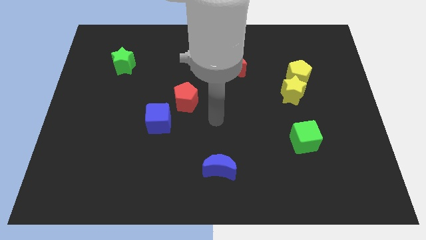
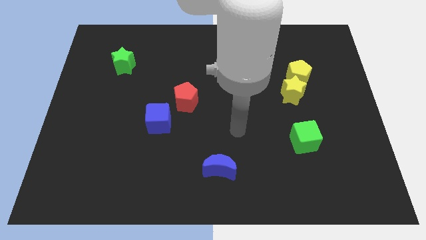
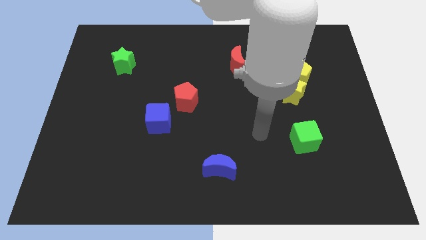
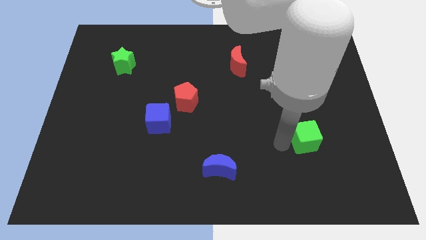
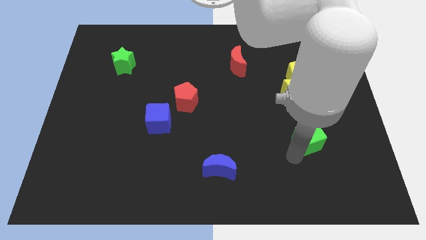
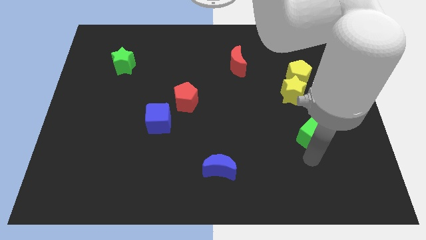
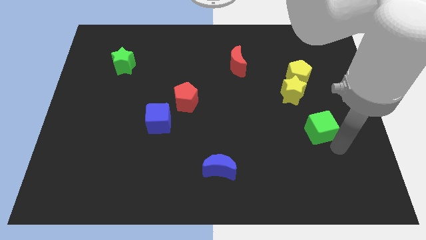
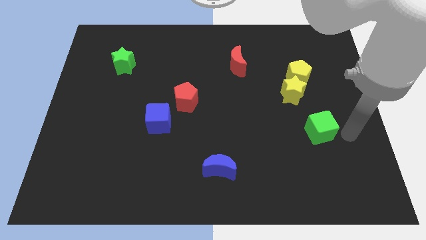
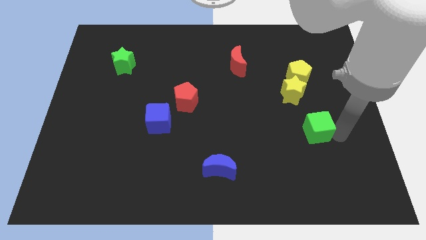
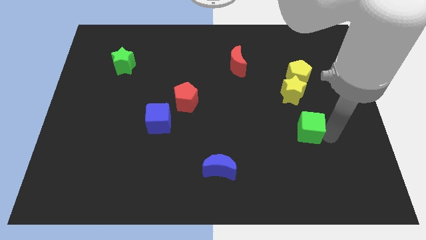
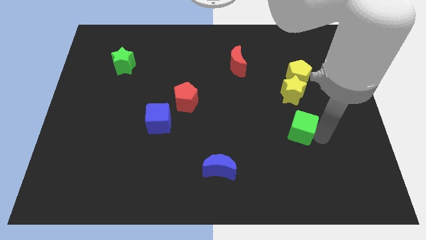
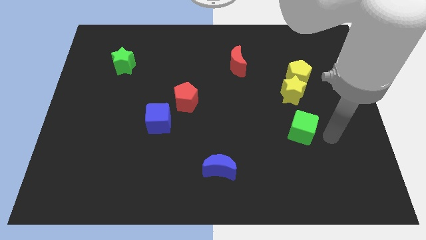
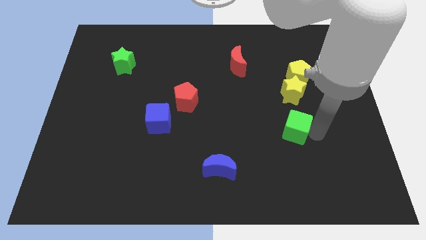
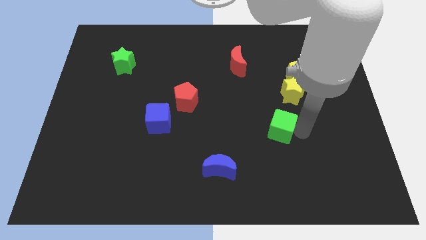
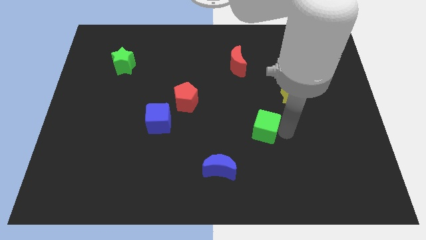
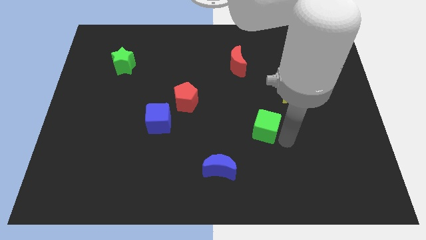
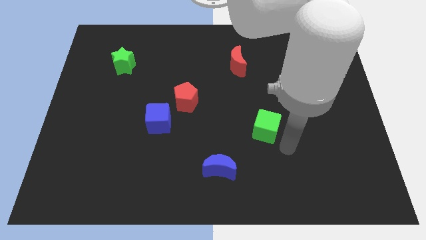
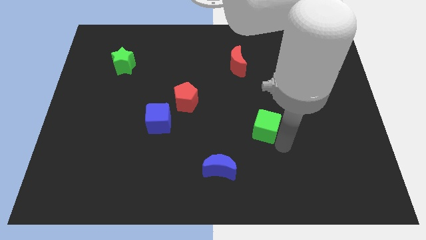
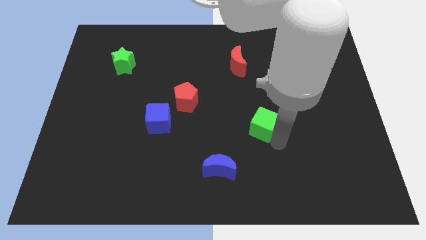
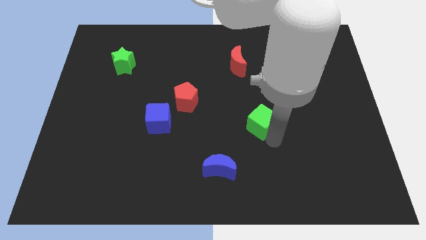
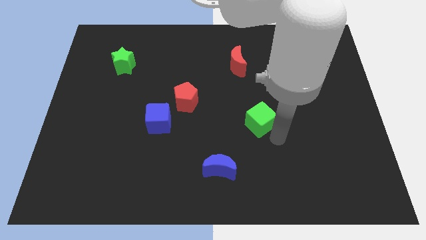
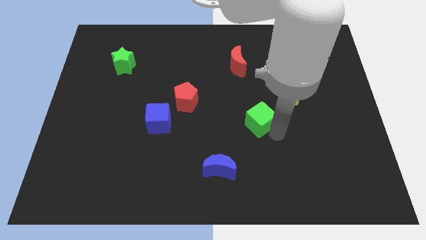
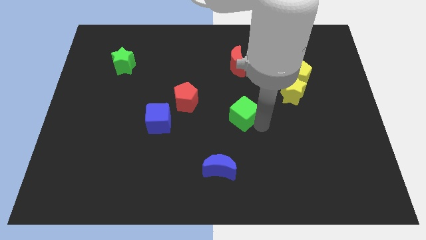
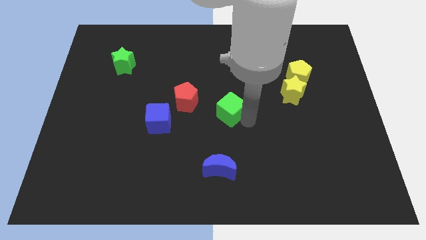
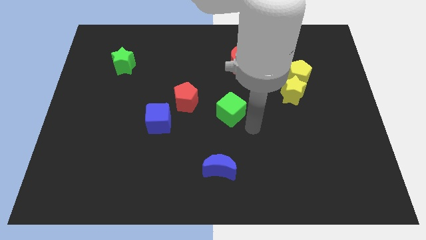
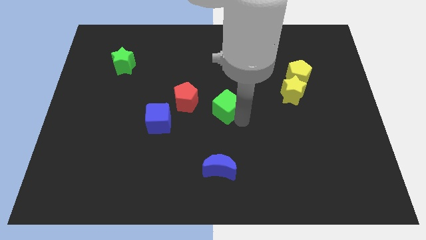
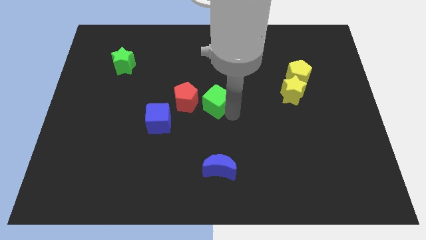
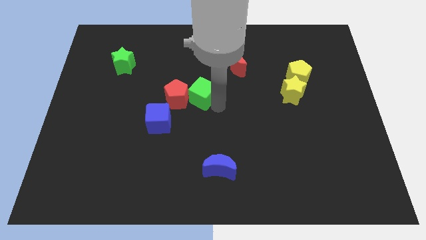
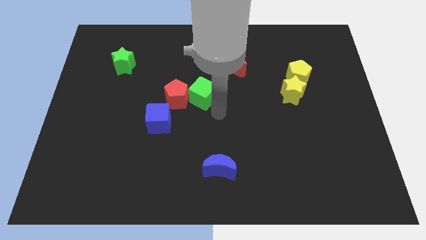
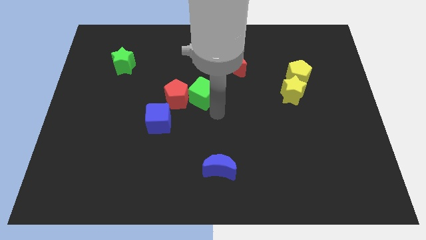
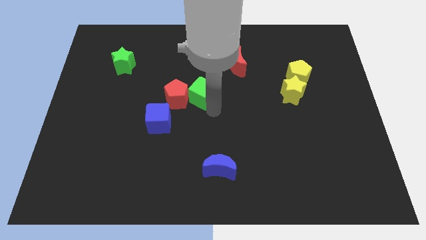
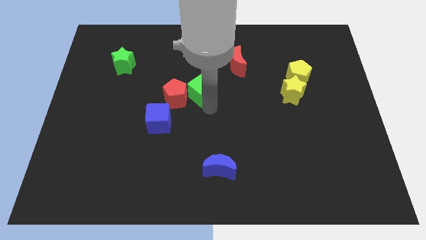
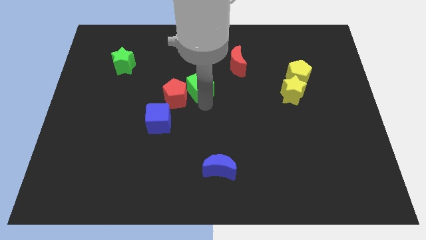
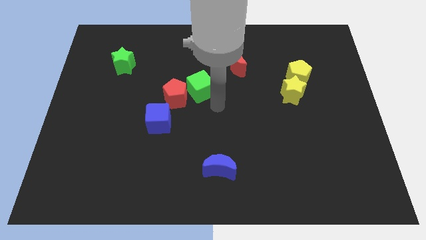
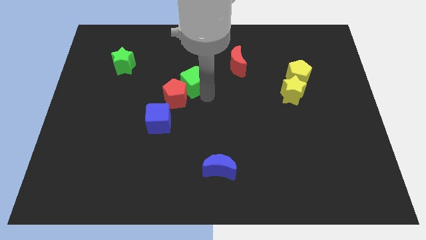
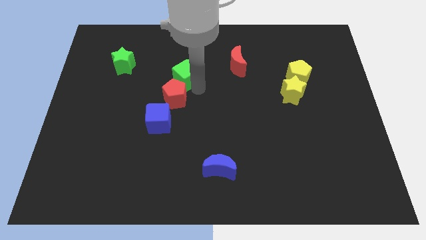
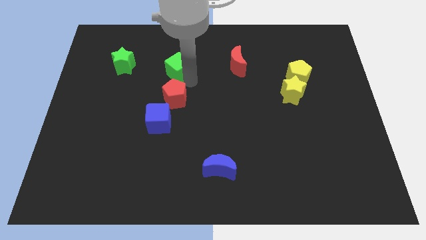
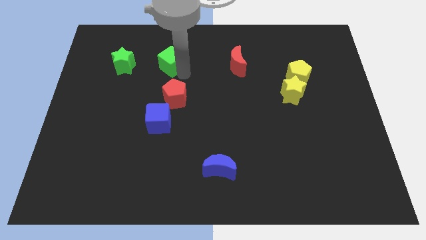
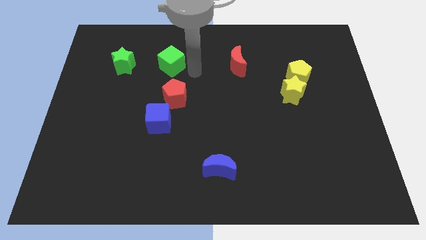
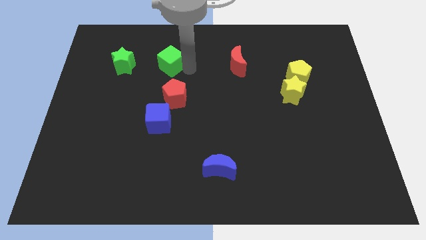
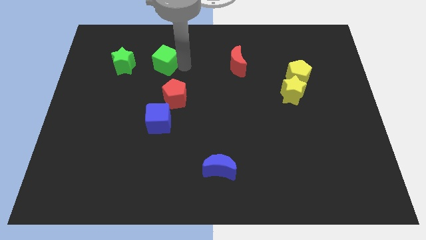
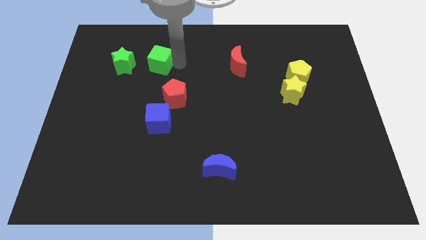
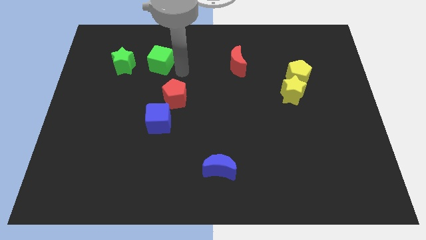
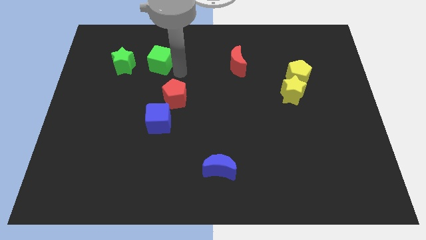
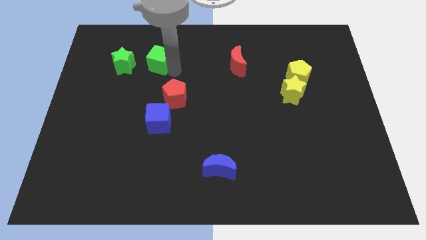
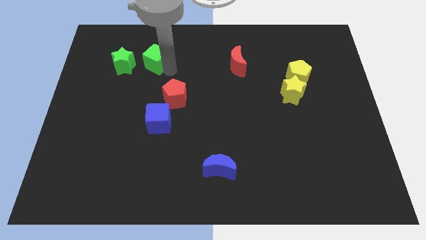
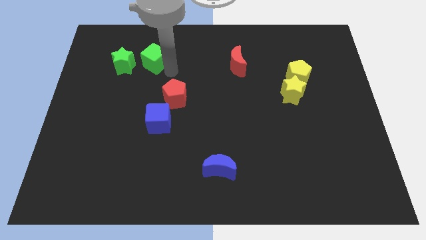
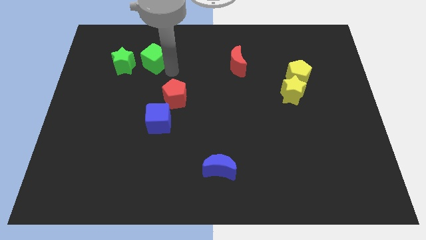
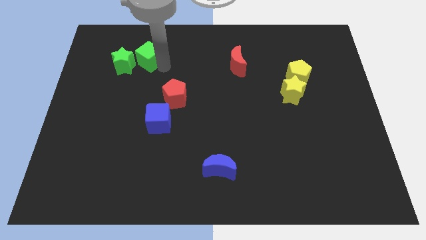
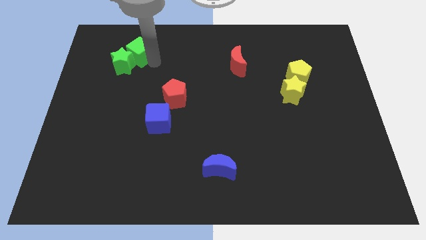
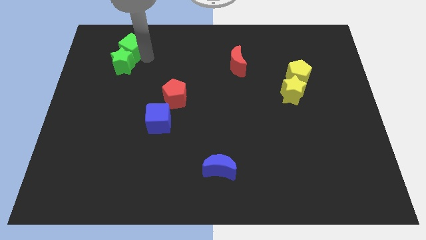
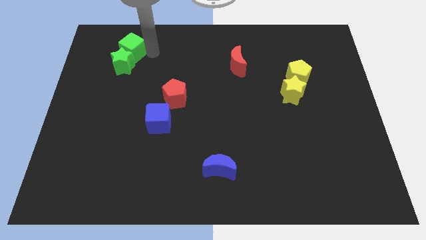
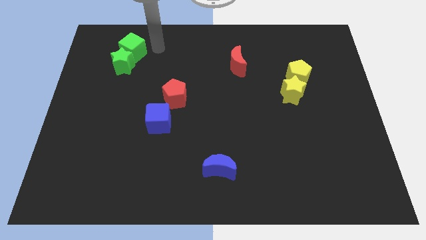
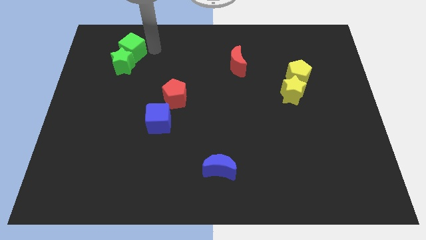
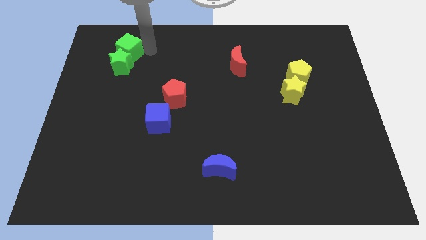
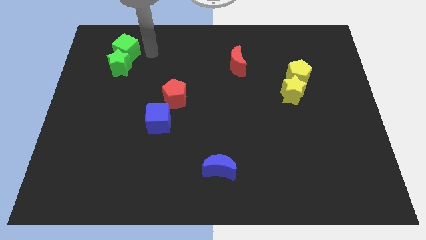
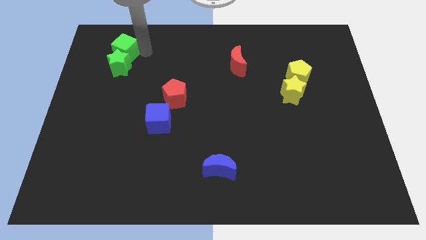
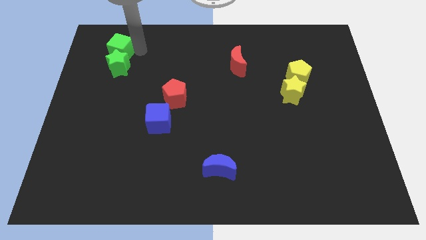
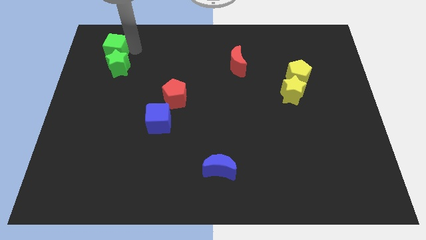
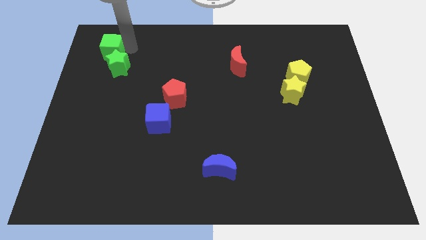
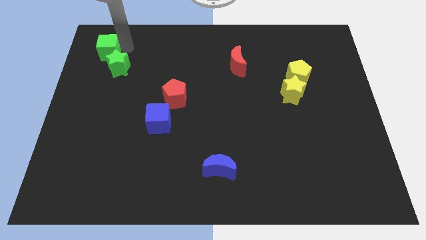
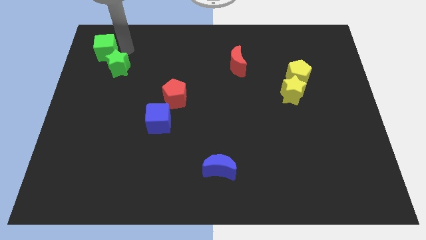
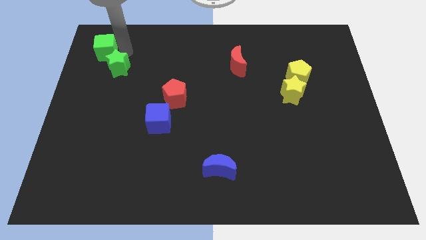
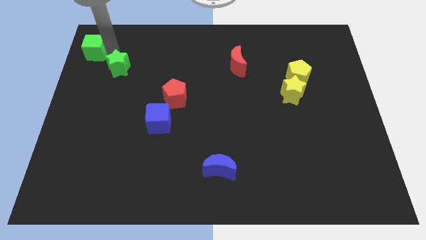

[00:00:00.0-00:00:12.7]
push the green cube to the top left of the board
